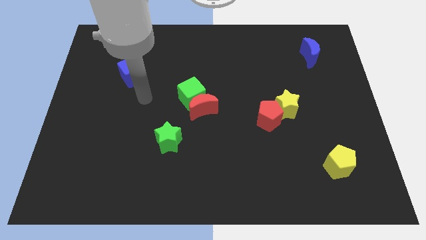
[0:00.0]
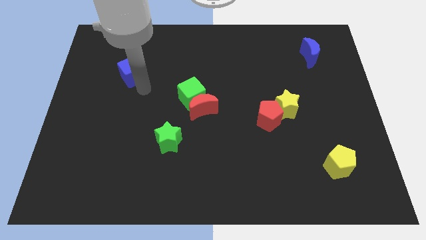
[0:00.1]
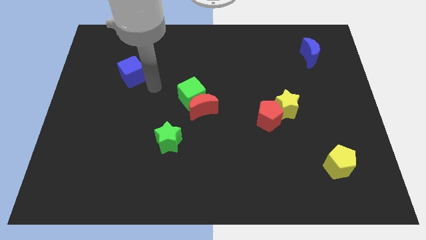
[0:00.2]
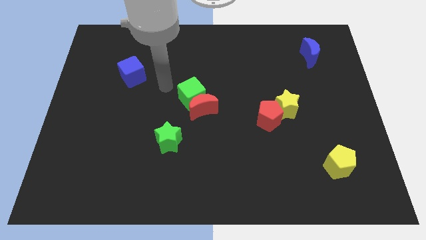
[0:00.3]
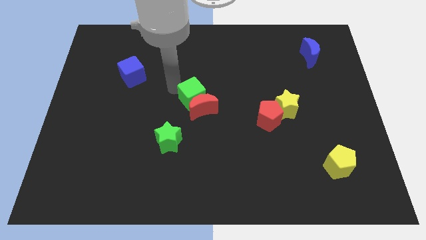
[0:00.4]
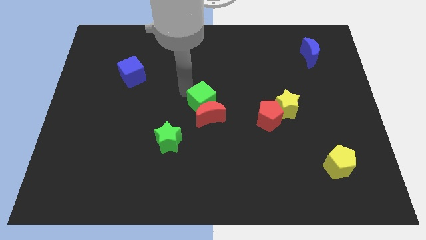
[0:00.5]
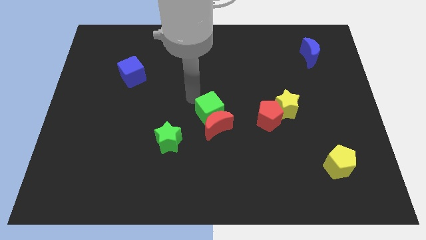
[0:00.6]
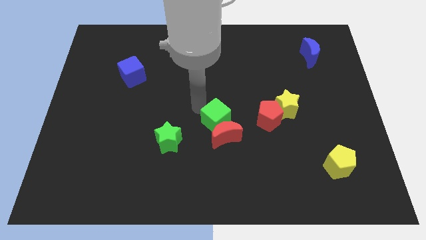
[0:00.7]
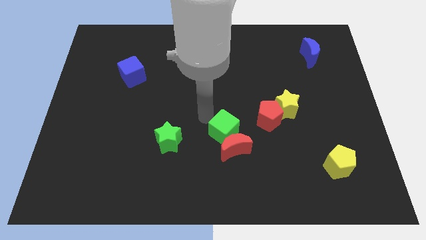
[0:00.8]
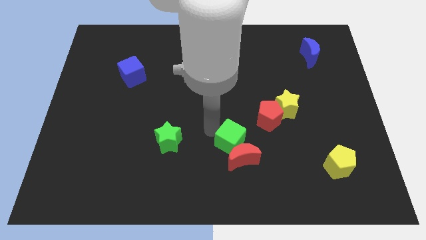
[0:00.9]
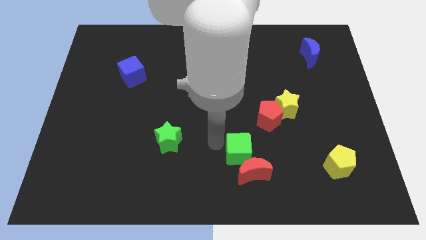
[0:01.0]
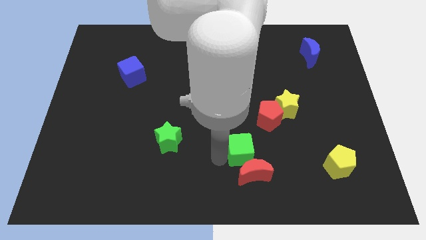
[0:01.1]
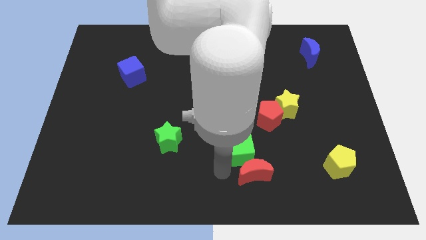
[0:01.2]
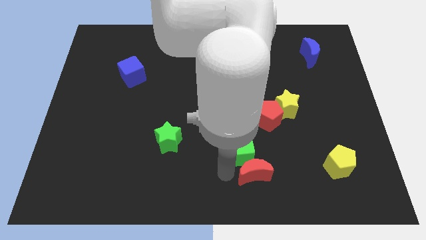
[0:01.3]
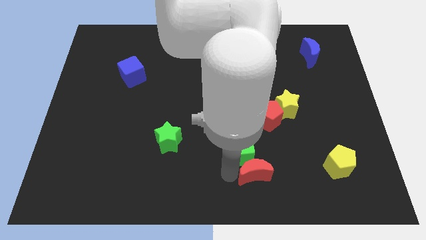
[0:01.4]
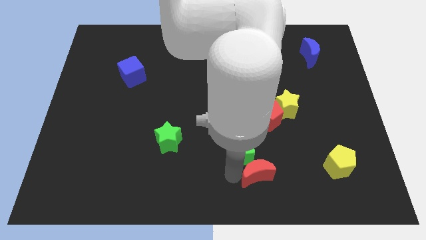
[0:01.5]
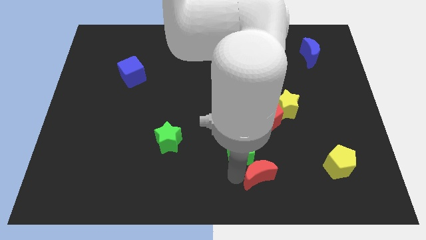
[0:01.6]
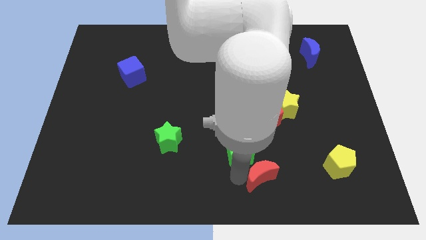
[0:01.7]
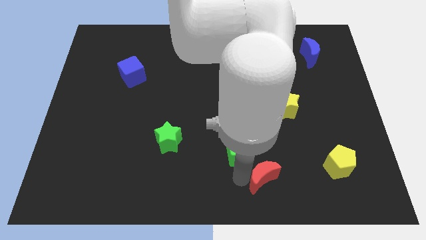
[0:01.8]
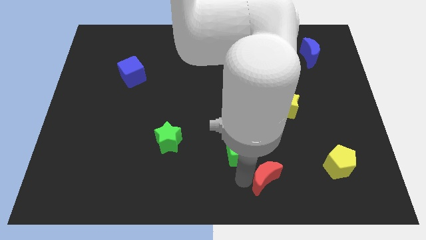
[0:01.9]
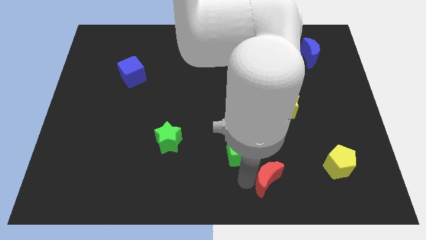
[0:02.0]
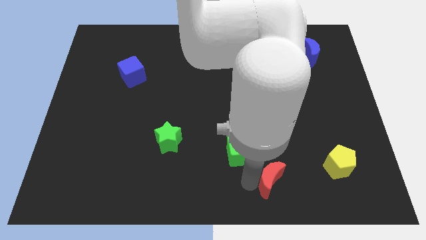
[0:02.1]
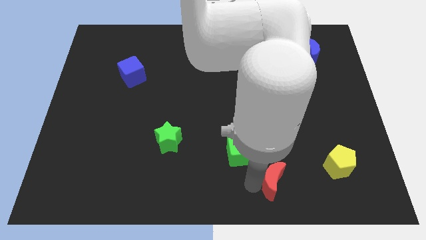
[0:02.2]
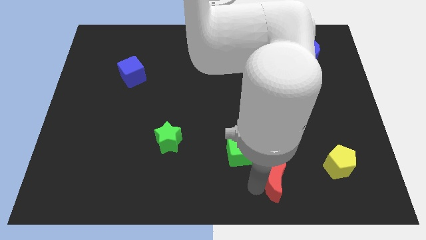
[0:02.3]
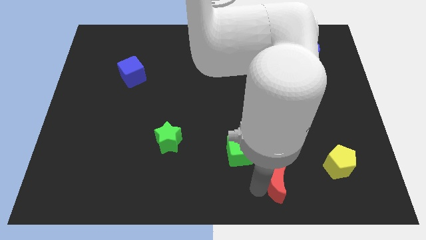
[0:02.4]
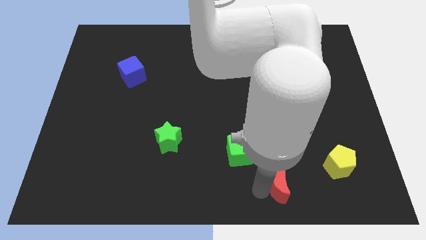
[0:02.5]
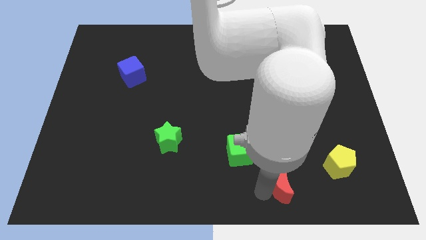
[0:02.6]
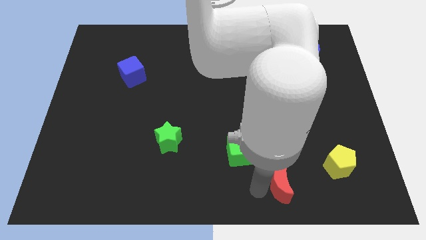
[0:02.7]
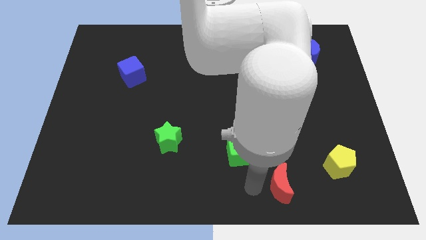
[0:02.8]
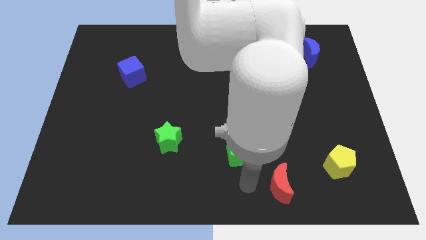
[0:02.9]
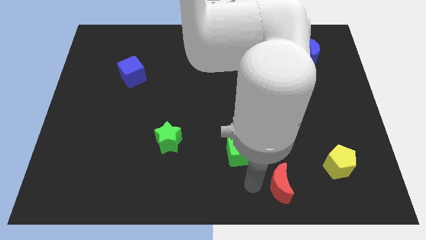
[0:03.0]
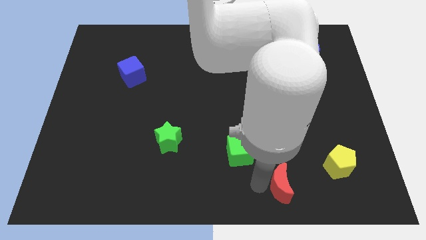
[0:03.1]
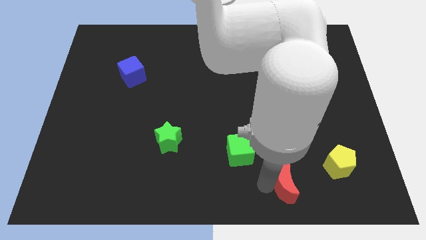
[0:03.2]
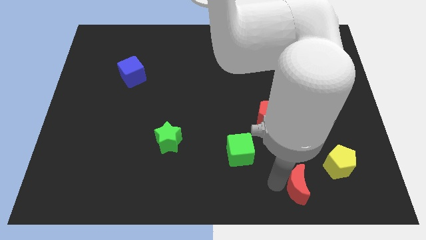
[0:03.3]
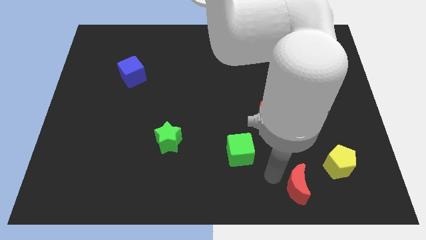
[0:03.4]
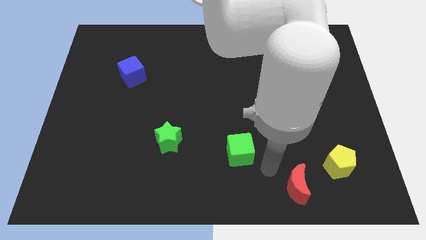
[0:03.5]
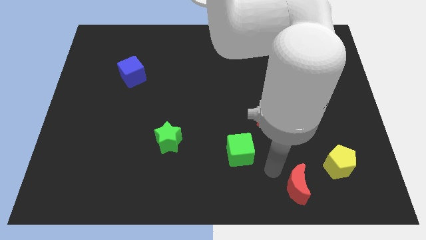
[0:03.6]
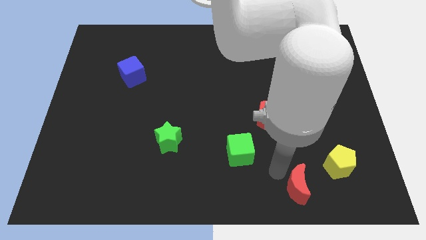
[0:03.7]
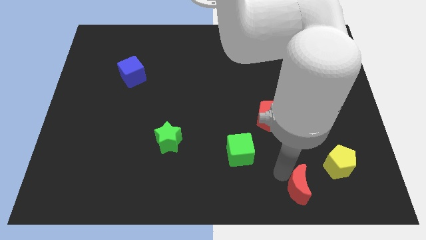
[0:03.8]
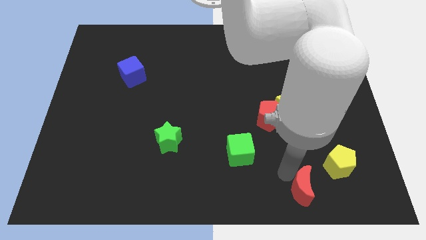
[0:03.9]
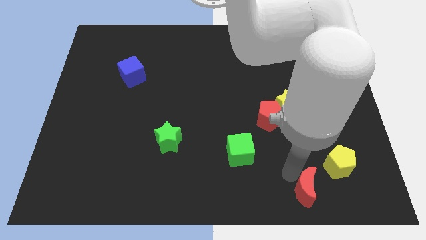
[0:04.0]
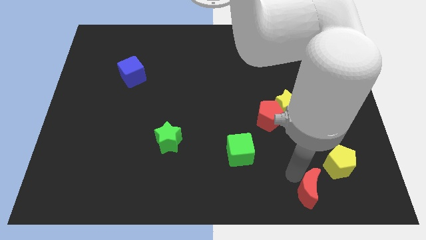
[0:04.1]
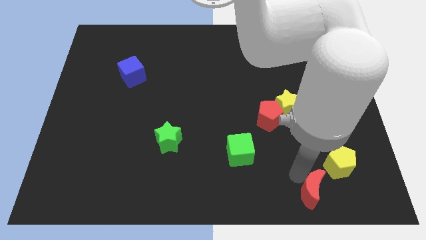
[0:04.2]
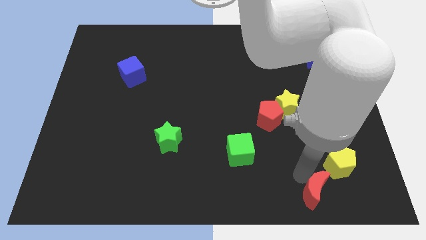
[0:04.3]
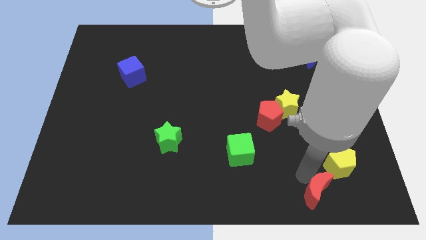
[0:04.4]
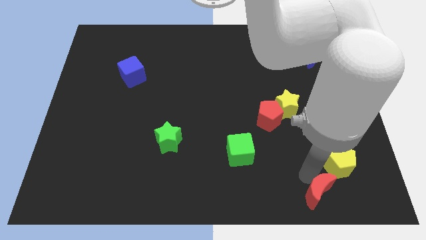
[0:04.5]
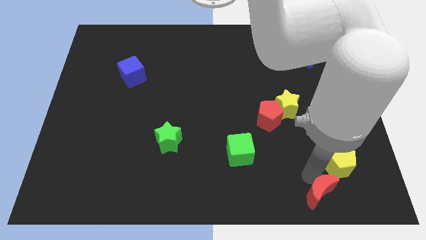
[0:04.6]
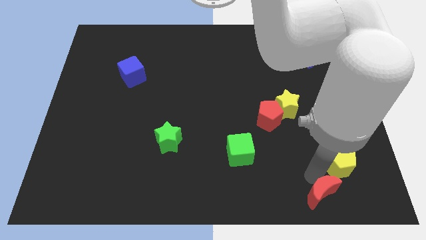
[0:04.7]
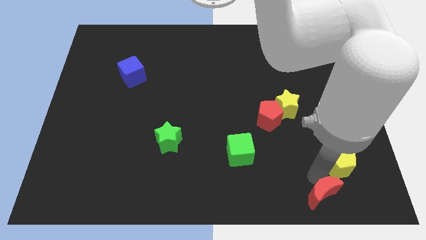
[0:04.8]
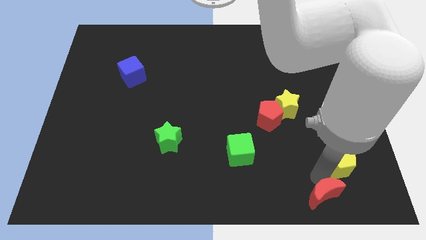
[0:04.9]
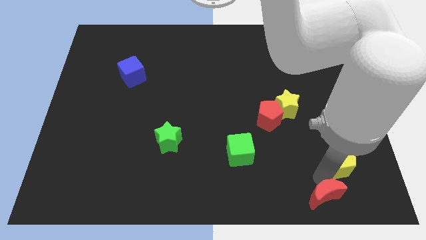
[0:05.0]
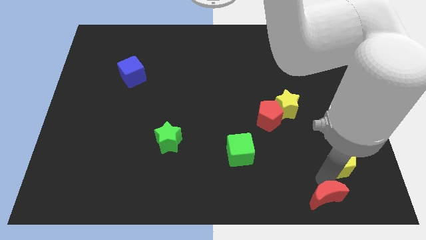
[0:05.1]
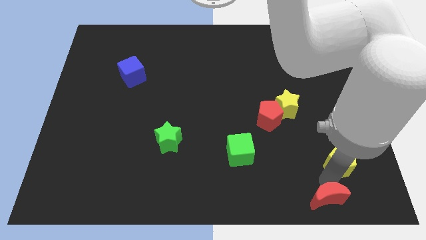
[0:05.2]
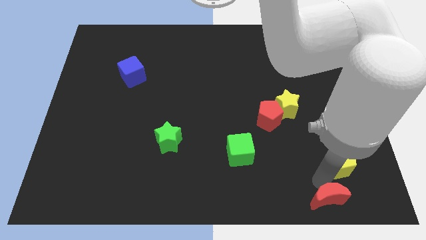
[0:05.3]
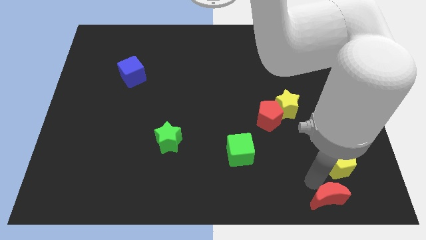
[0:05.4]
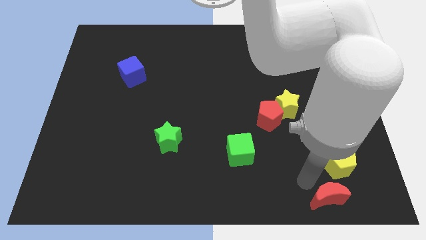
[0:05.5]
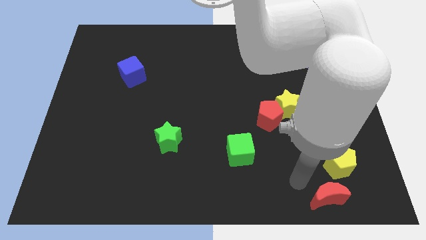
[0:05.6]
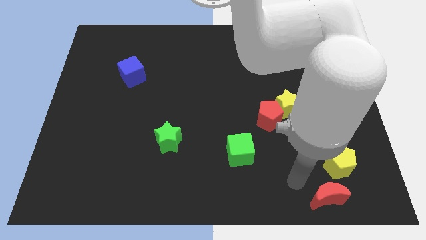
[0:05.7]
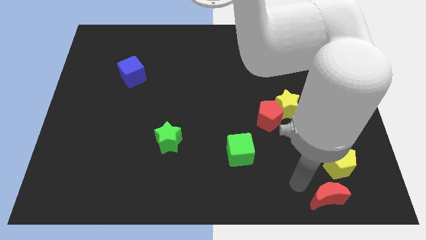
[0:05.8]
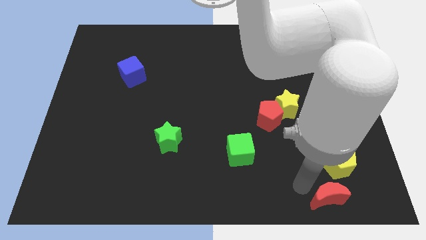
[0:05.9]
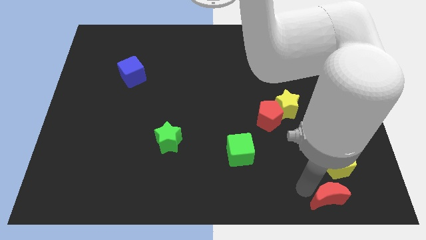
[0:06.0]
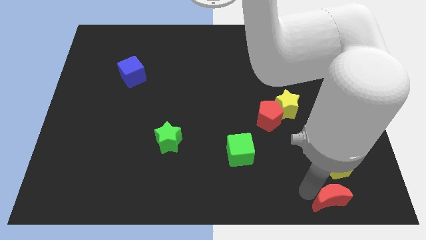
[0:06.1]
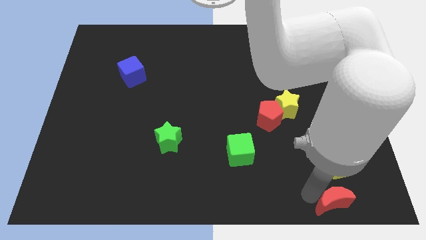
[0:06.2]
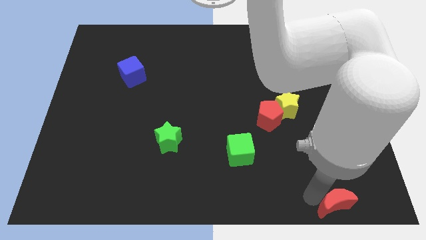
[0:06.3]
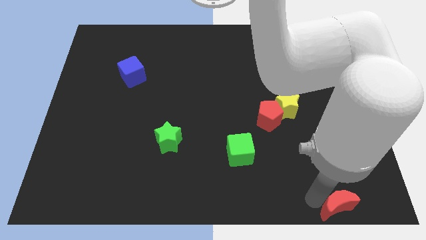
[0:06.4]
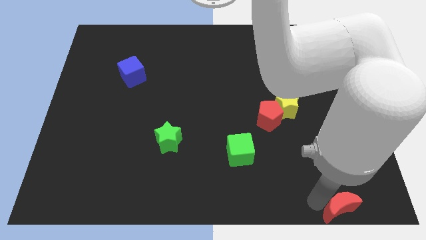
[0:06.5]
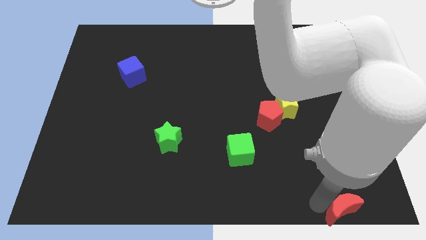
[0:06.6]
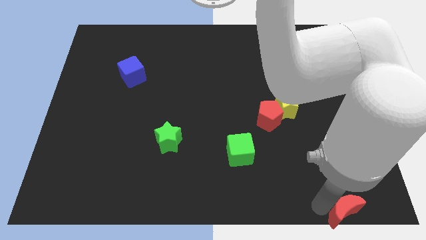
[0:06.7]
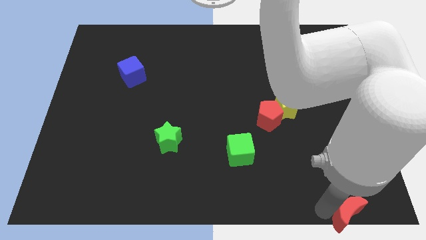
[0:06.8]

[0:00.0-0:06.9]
put the red moon to the bottom right

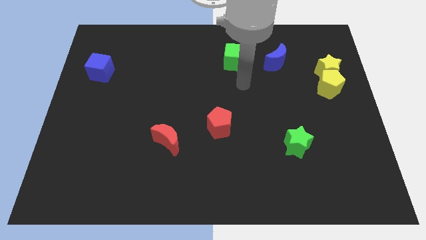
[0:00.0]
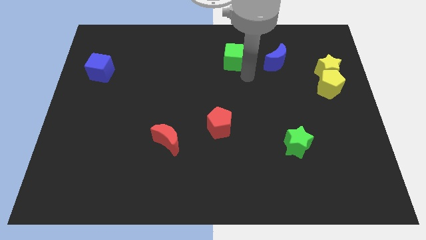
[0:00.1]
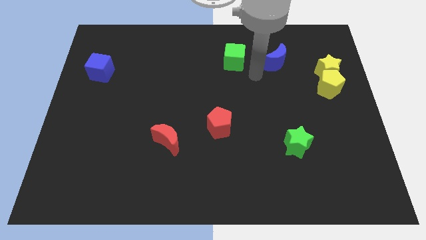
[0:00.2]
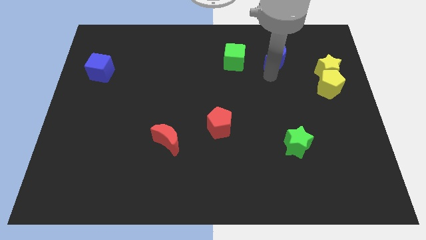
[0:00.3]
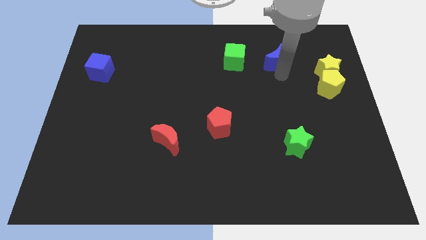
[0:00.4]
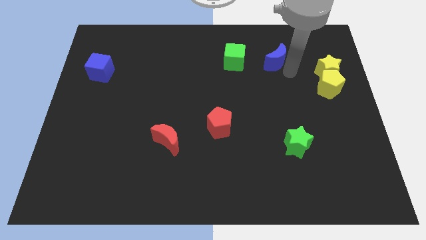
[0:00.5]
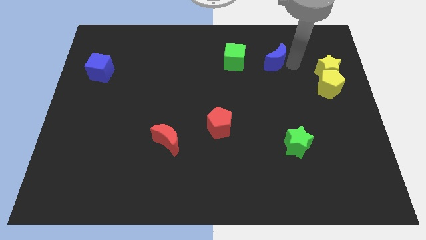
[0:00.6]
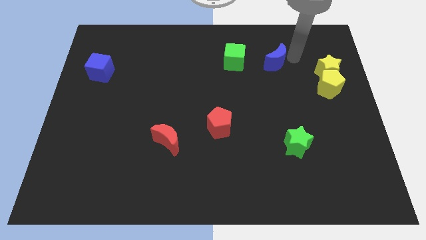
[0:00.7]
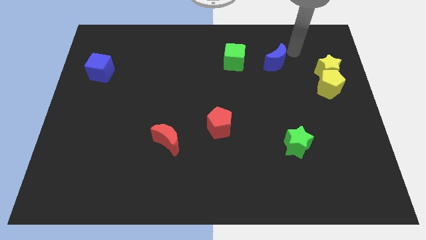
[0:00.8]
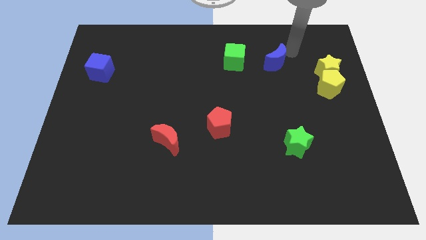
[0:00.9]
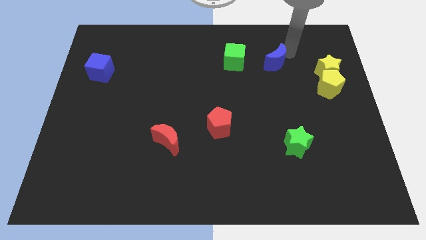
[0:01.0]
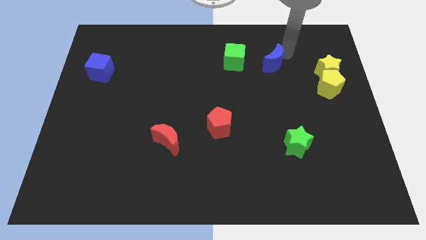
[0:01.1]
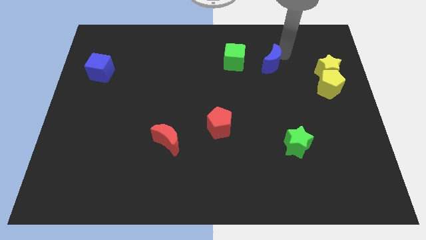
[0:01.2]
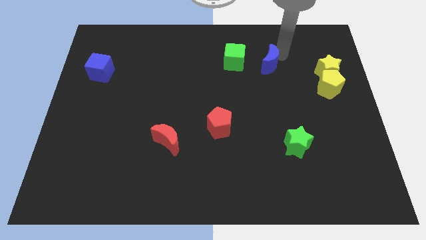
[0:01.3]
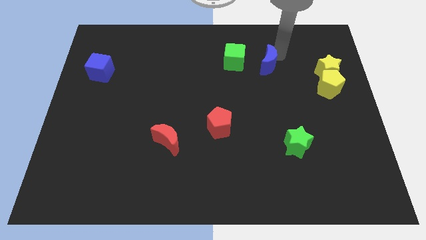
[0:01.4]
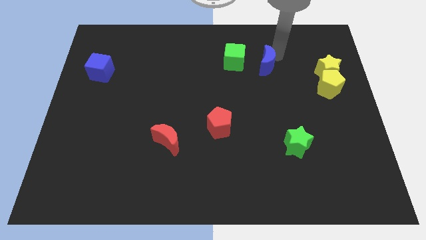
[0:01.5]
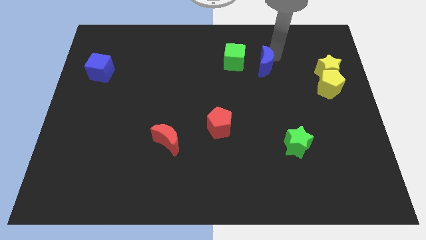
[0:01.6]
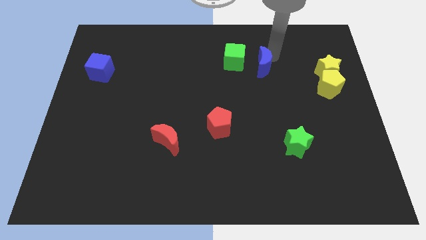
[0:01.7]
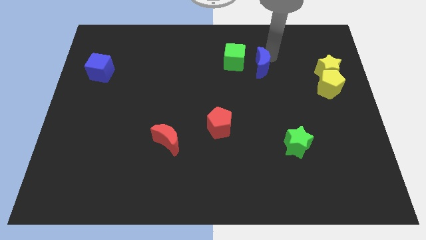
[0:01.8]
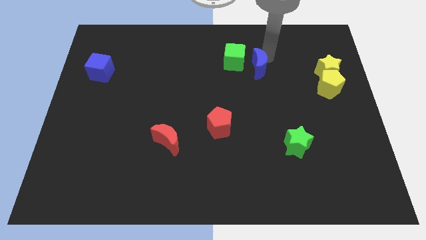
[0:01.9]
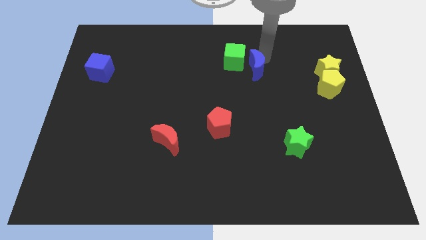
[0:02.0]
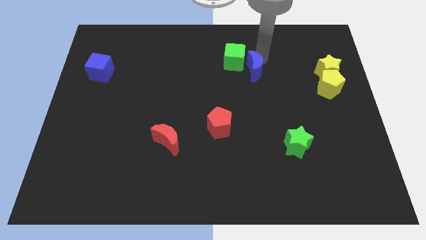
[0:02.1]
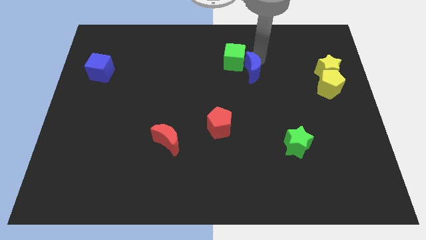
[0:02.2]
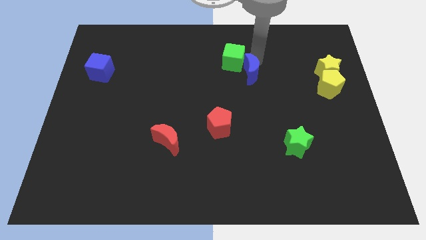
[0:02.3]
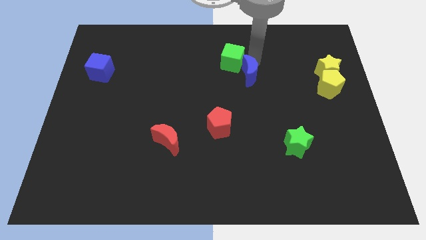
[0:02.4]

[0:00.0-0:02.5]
slide the blue moon to the middle of the board
